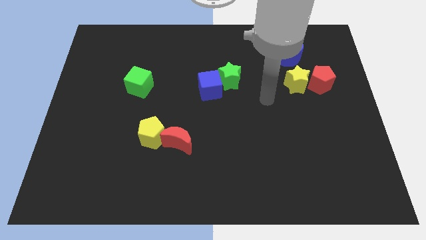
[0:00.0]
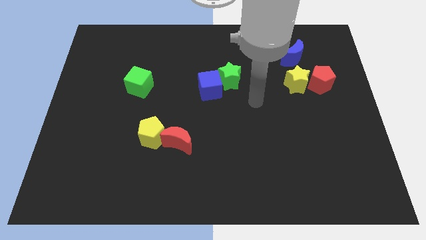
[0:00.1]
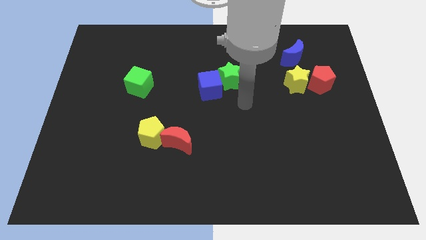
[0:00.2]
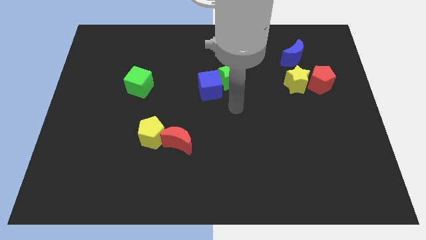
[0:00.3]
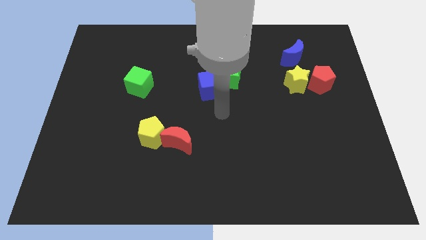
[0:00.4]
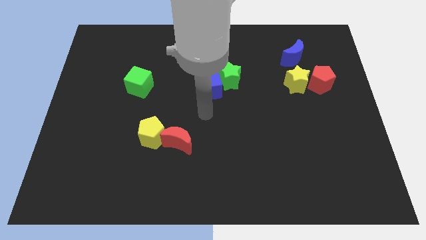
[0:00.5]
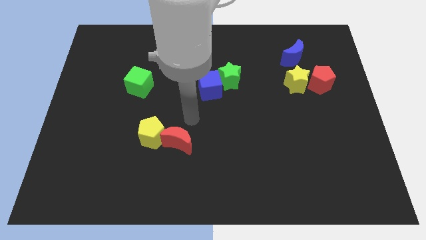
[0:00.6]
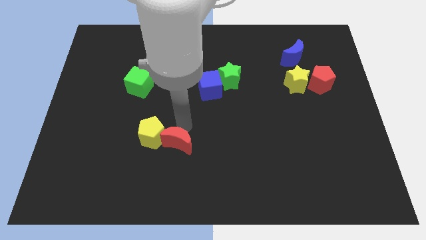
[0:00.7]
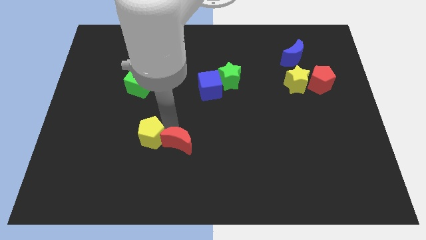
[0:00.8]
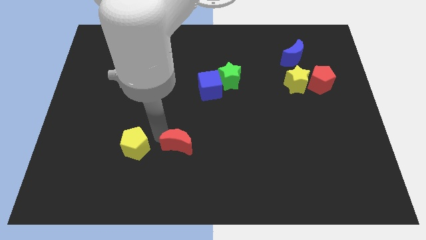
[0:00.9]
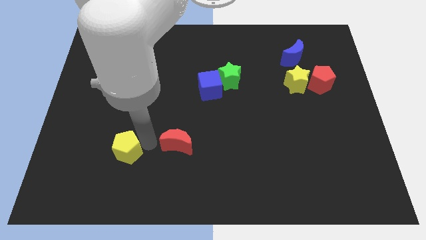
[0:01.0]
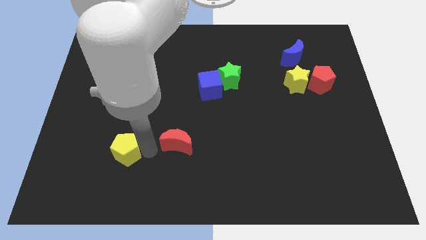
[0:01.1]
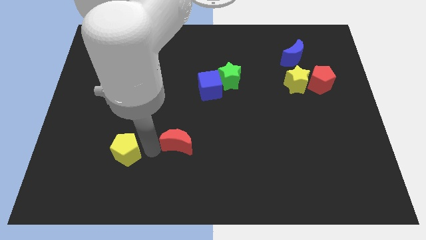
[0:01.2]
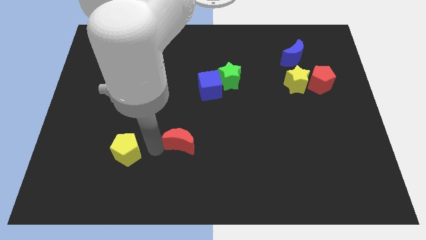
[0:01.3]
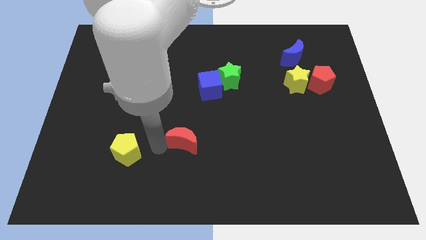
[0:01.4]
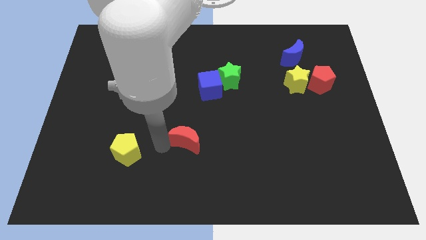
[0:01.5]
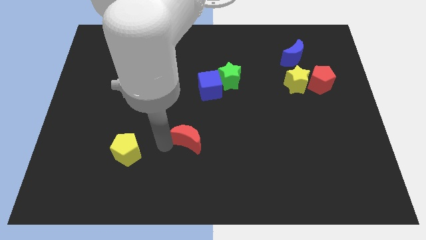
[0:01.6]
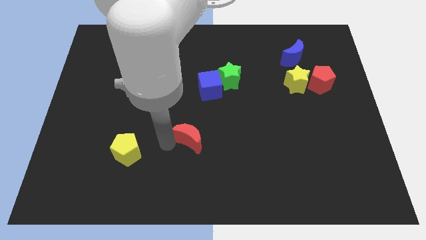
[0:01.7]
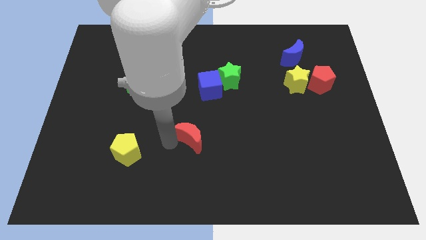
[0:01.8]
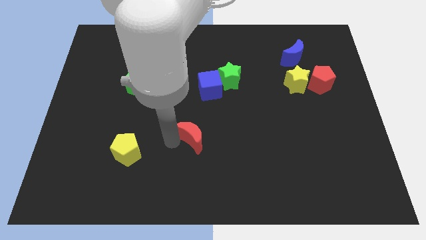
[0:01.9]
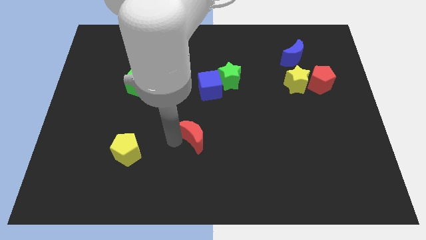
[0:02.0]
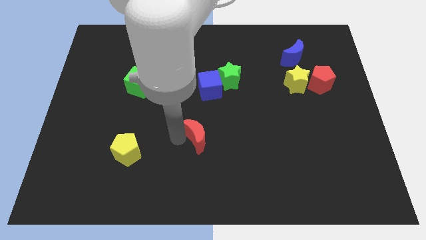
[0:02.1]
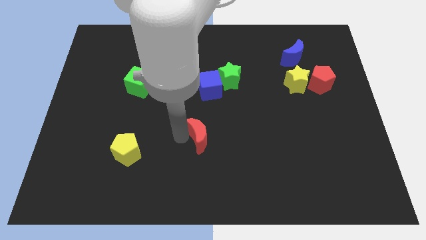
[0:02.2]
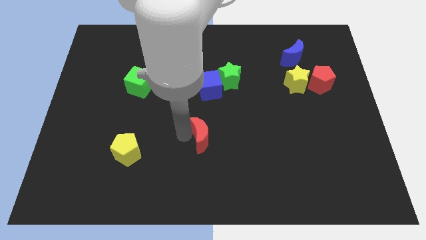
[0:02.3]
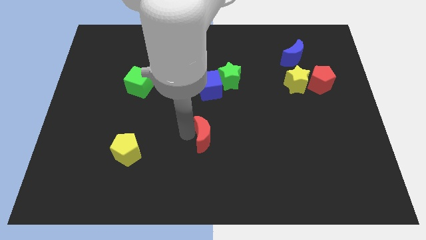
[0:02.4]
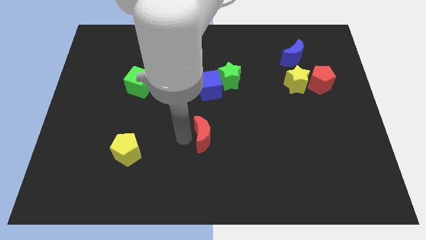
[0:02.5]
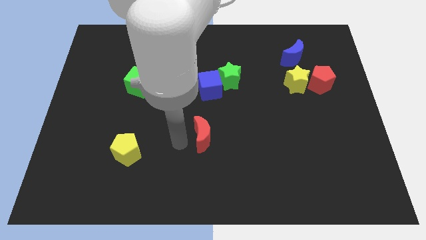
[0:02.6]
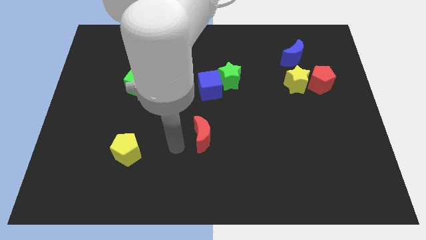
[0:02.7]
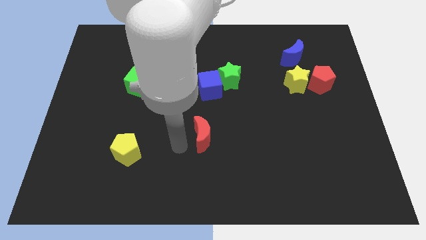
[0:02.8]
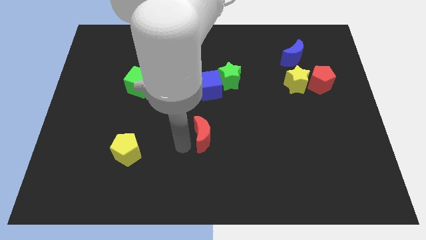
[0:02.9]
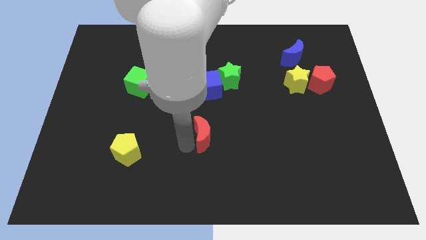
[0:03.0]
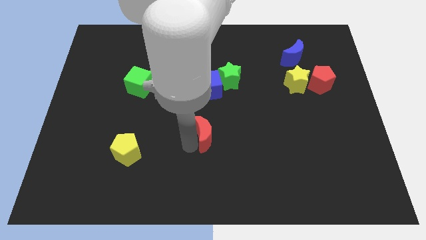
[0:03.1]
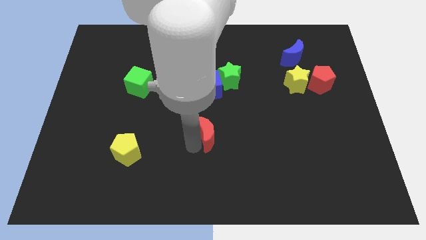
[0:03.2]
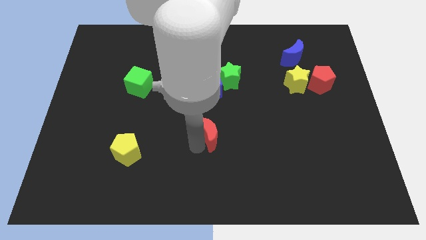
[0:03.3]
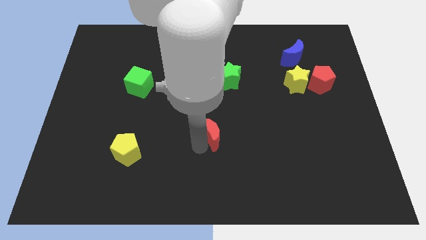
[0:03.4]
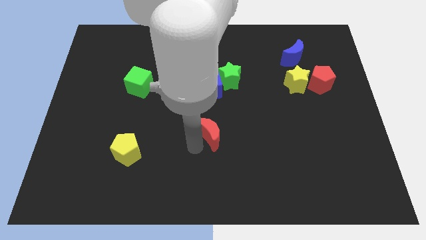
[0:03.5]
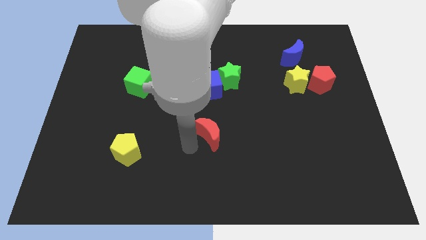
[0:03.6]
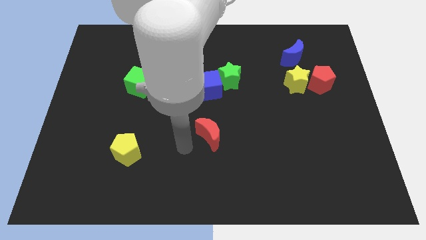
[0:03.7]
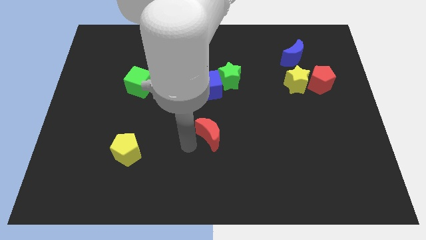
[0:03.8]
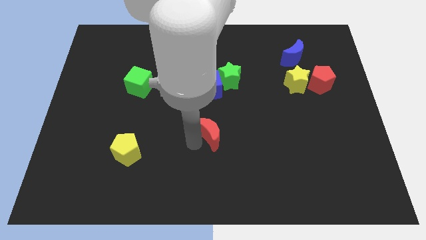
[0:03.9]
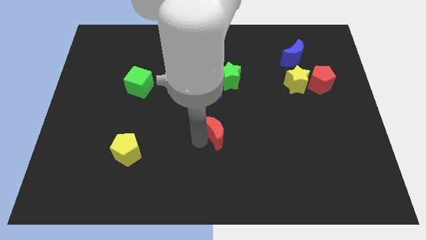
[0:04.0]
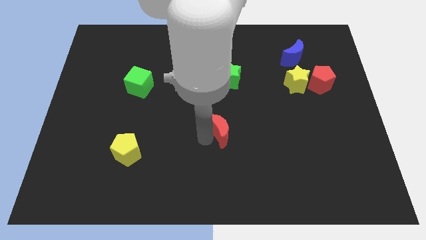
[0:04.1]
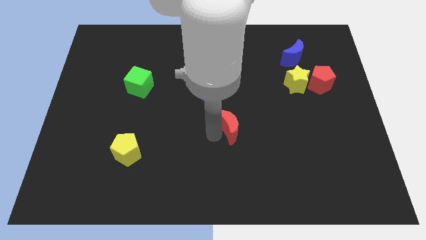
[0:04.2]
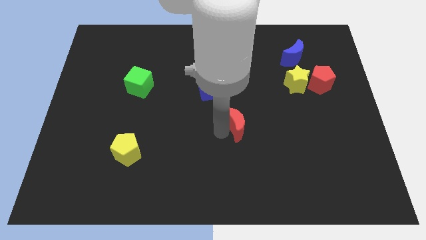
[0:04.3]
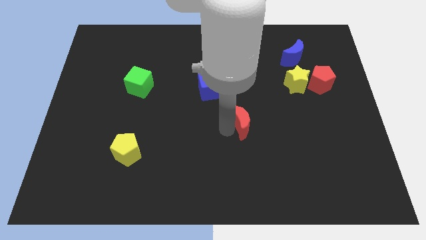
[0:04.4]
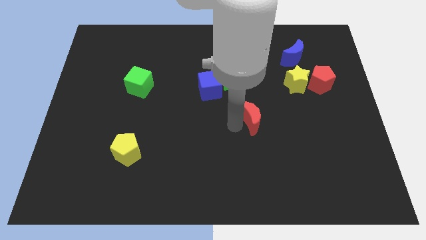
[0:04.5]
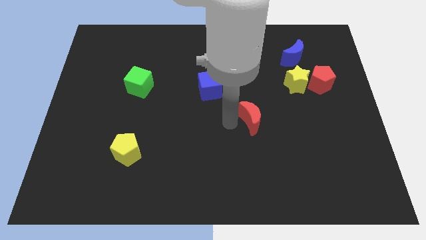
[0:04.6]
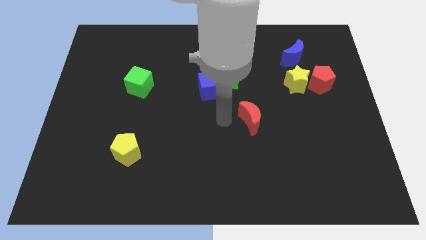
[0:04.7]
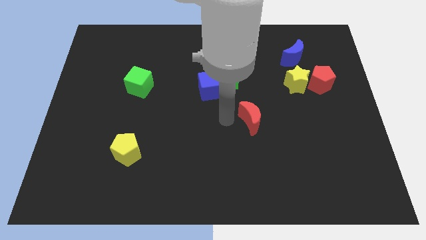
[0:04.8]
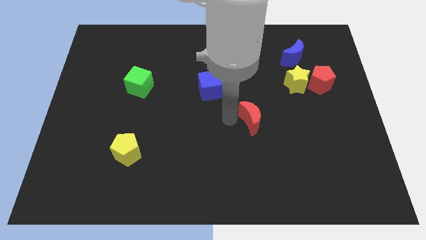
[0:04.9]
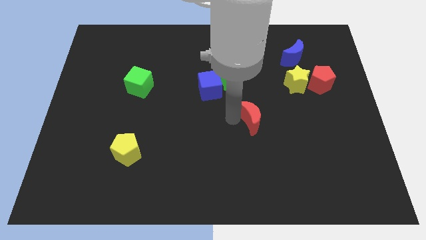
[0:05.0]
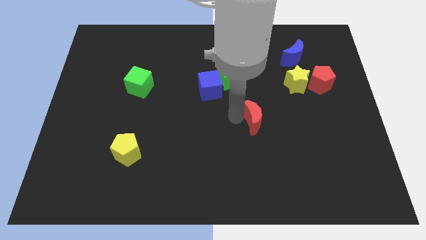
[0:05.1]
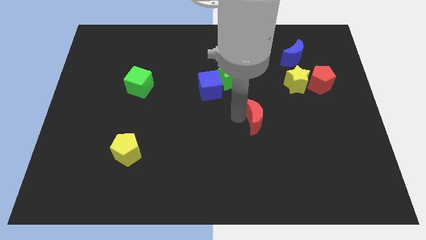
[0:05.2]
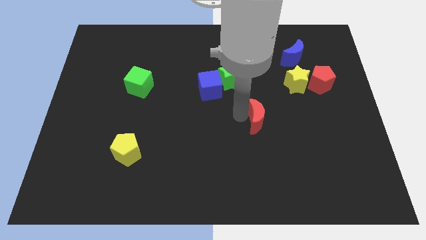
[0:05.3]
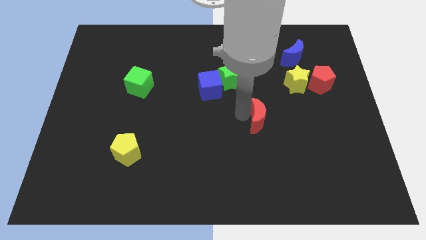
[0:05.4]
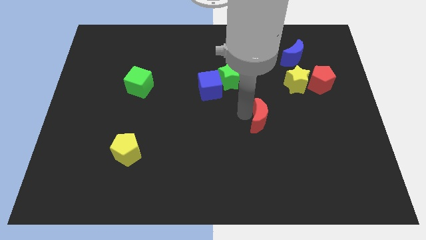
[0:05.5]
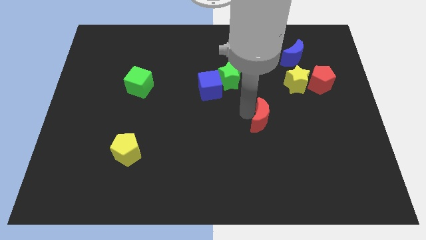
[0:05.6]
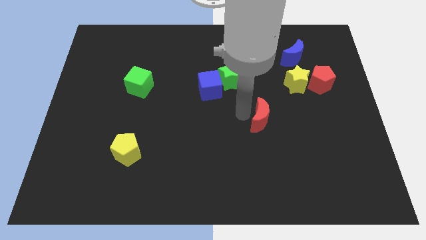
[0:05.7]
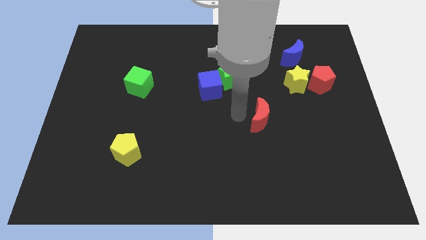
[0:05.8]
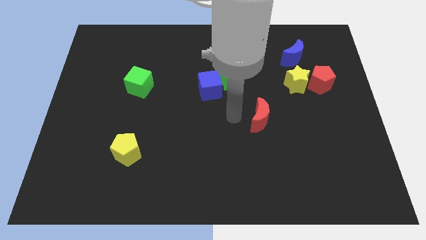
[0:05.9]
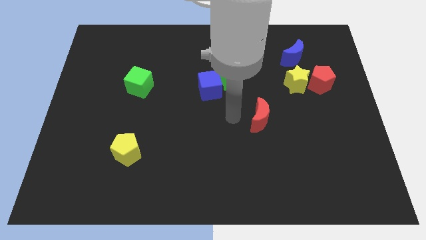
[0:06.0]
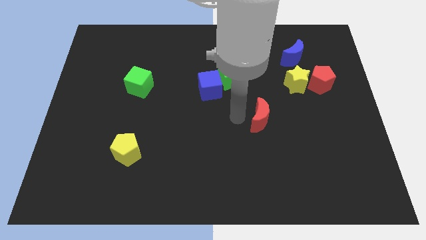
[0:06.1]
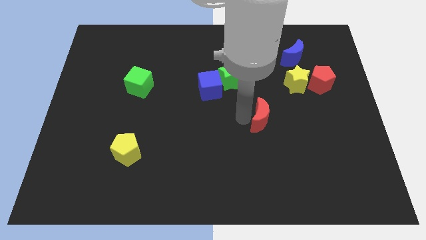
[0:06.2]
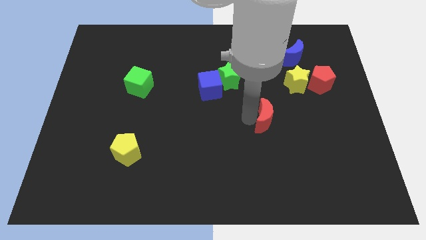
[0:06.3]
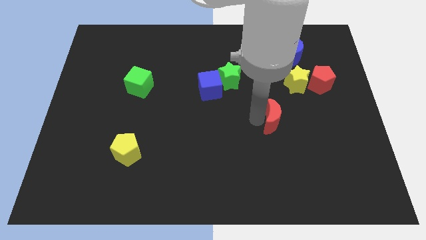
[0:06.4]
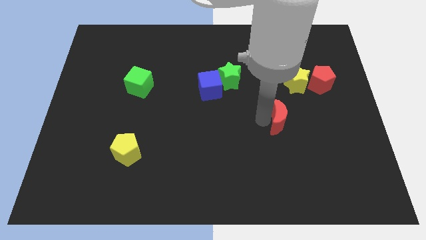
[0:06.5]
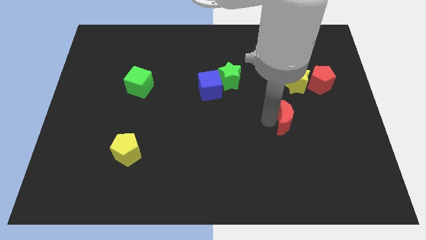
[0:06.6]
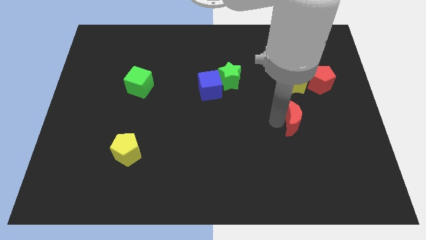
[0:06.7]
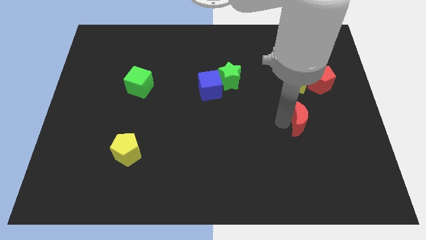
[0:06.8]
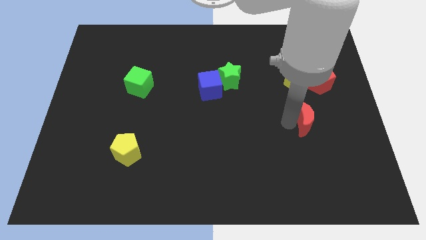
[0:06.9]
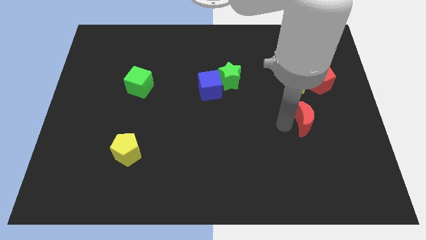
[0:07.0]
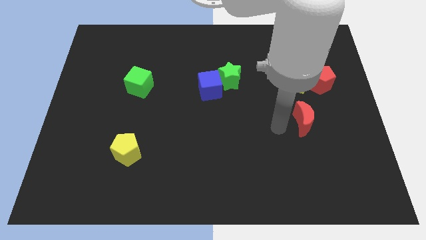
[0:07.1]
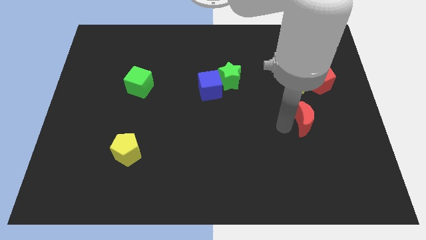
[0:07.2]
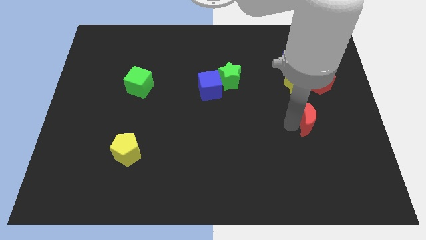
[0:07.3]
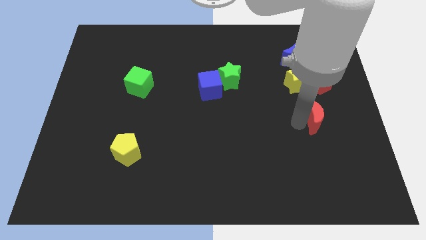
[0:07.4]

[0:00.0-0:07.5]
slide the red moon below the red pentagon
